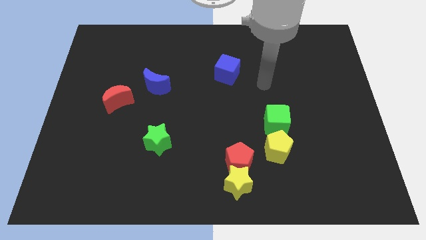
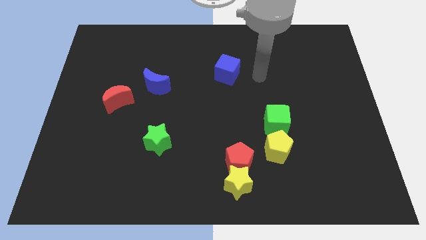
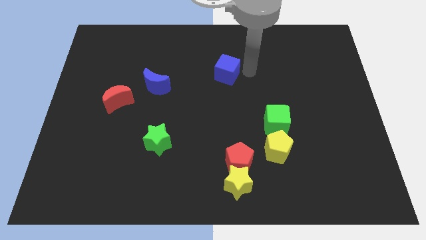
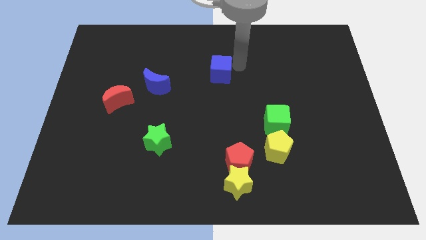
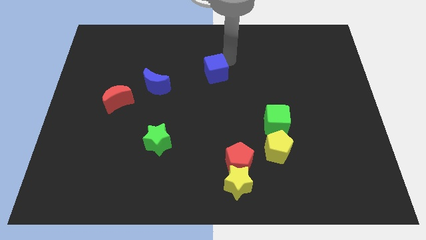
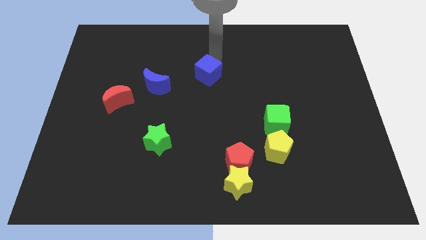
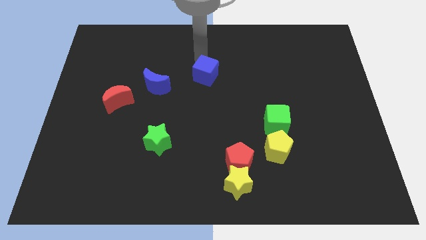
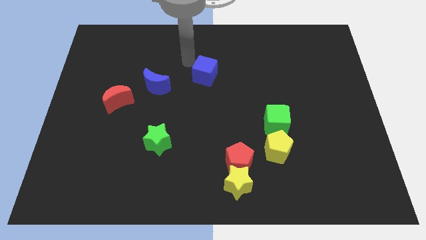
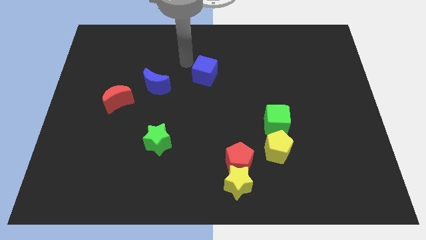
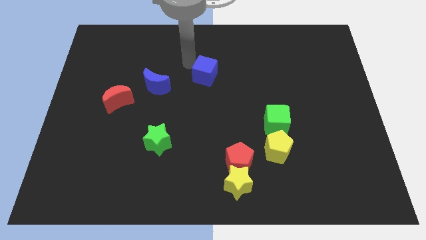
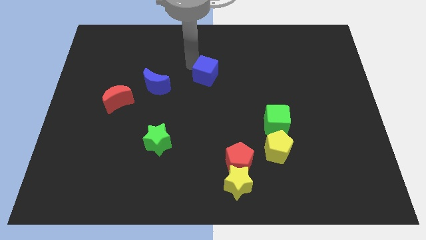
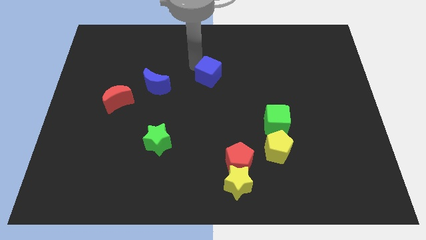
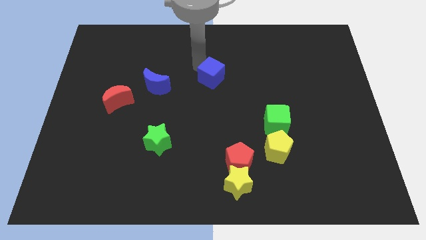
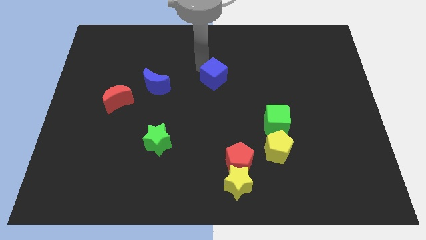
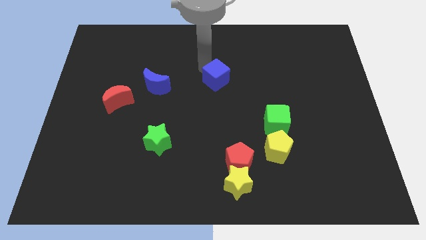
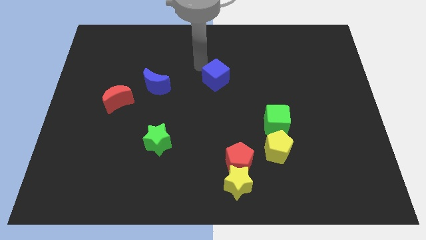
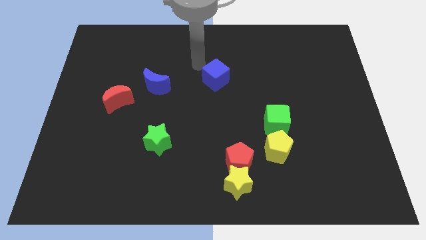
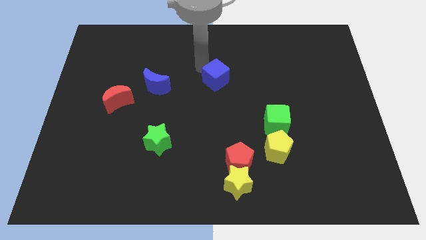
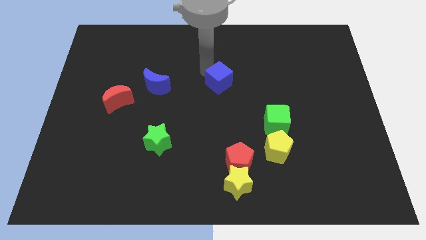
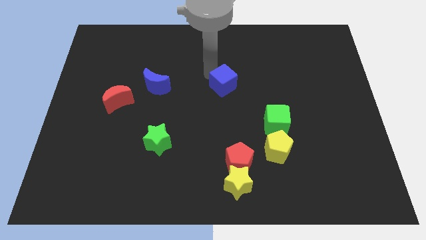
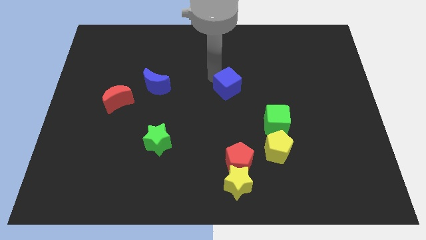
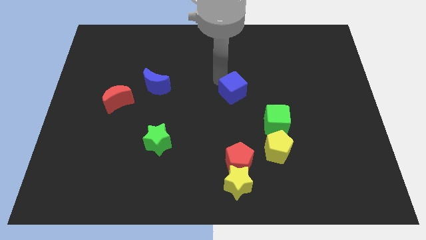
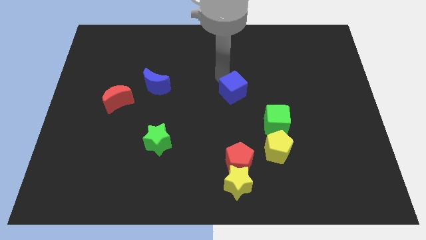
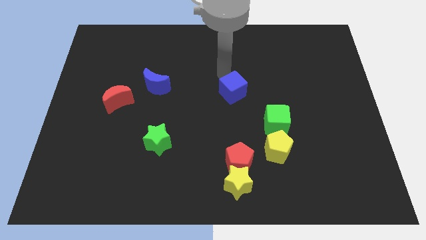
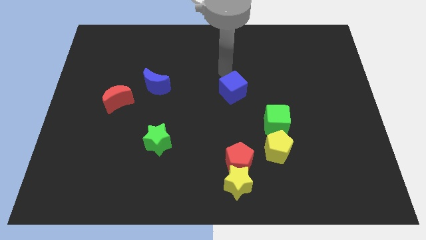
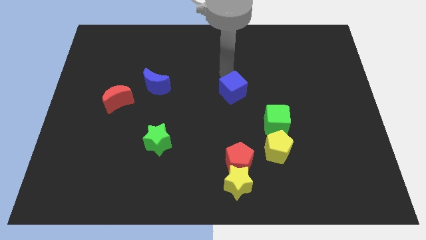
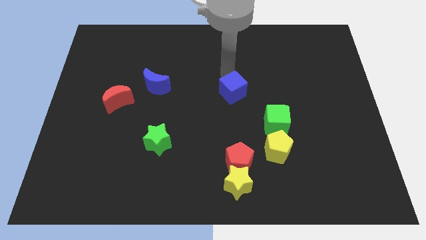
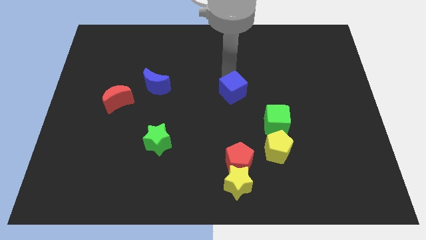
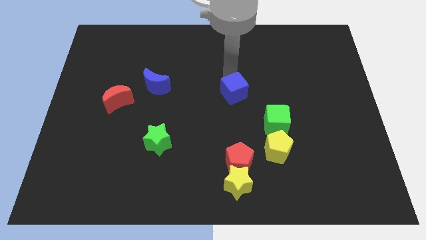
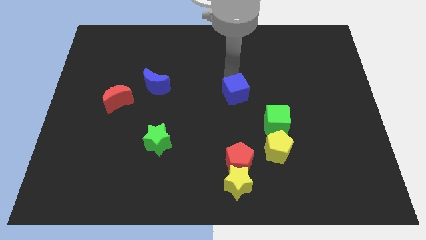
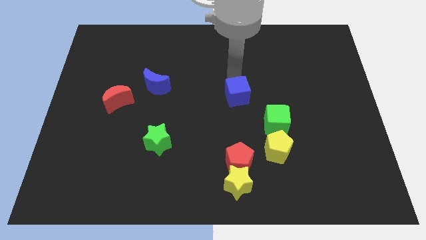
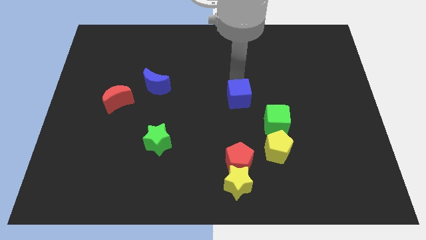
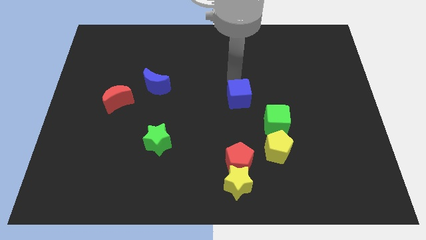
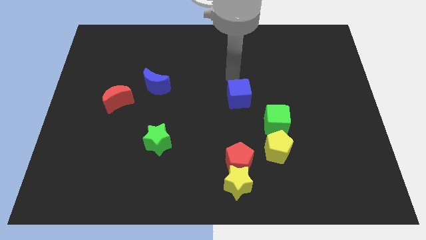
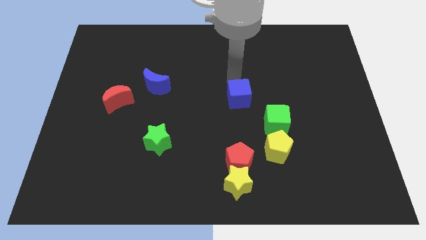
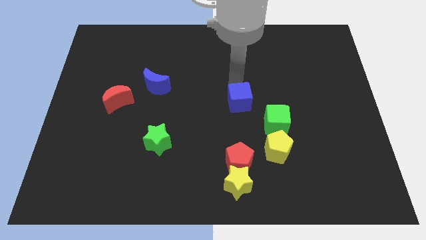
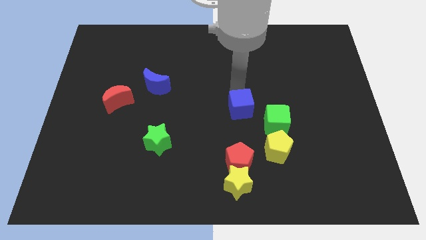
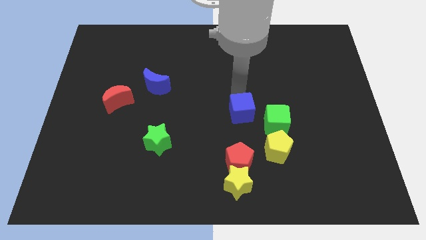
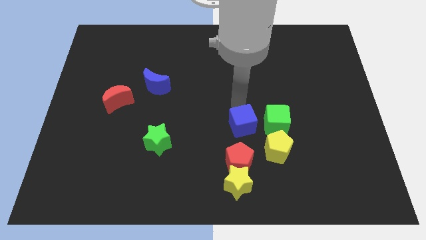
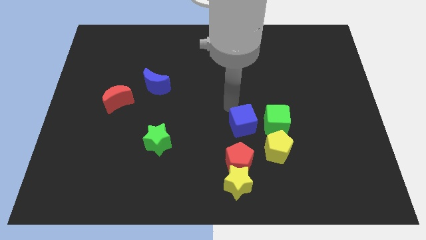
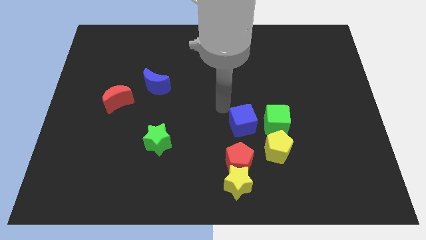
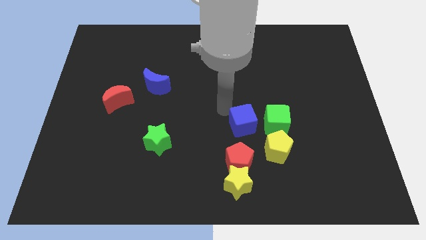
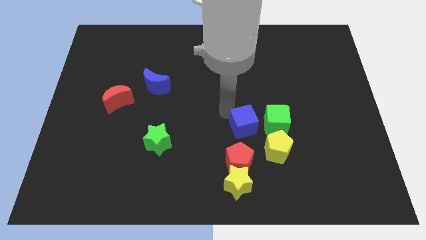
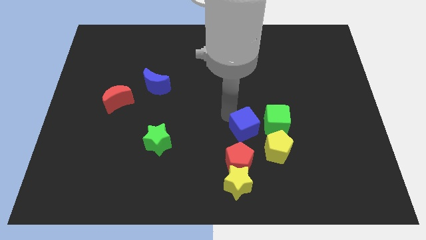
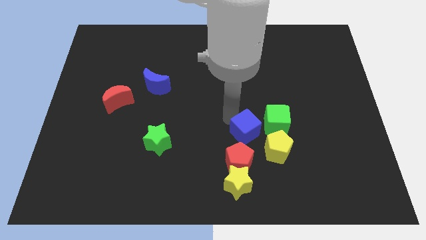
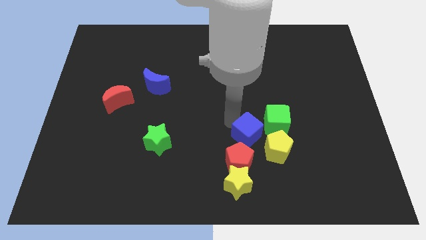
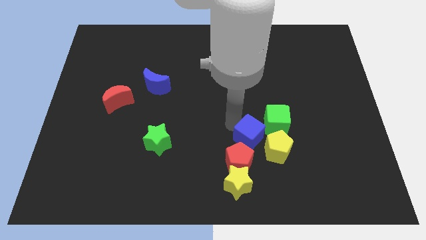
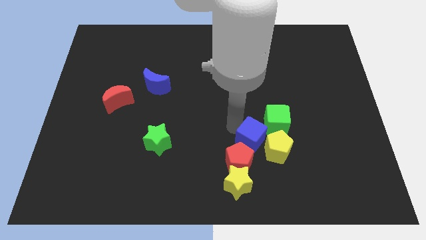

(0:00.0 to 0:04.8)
move the blue cube to the yellow pentagon

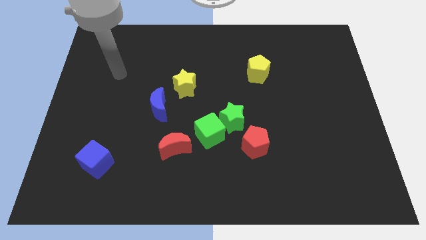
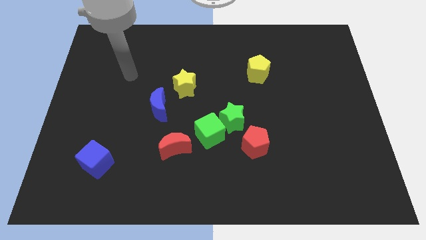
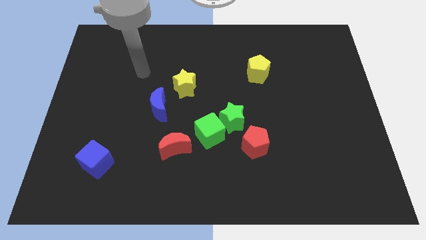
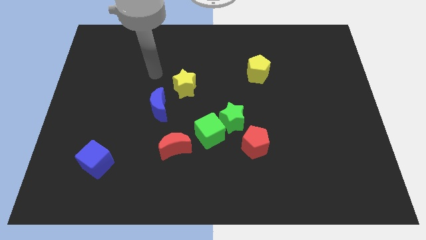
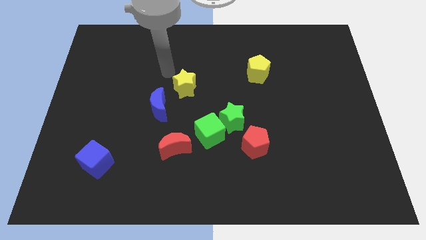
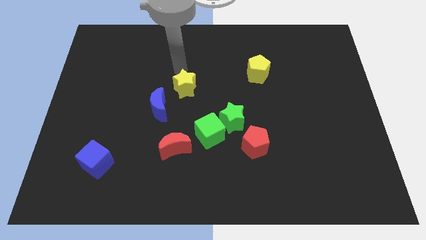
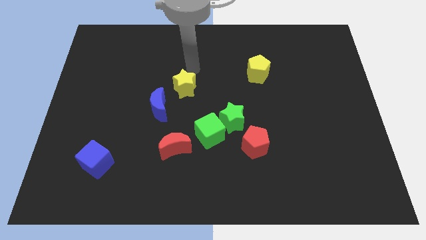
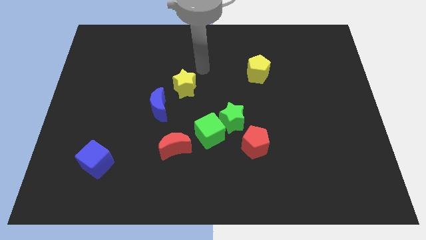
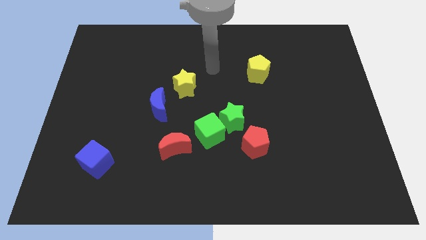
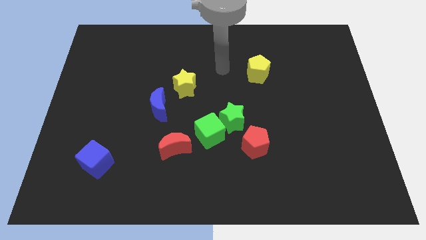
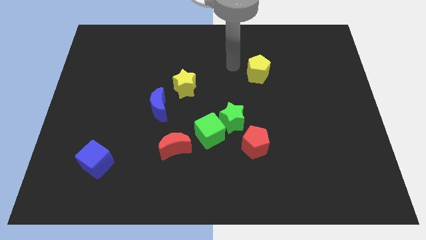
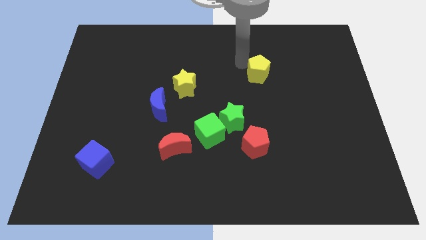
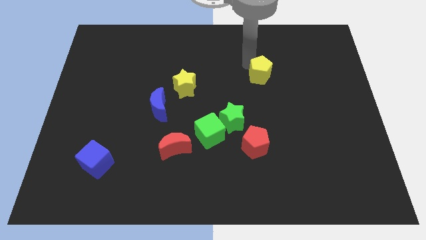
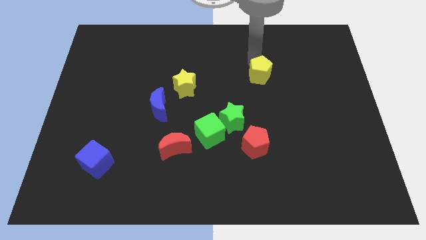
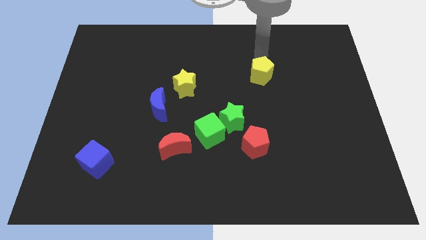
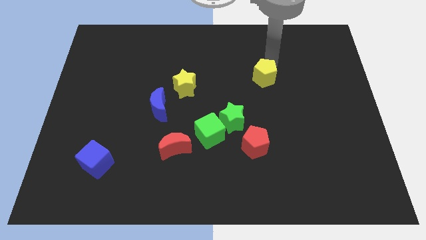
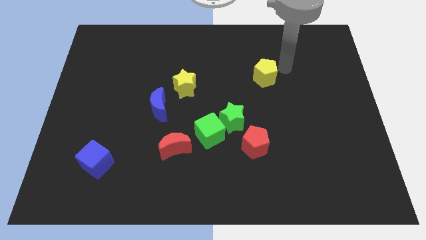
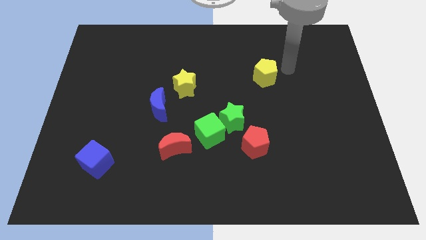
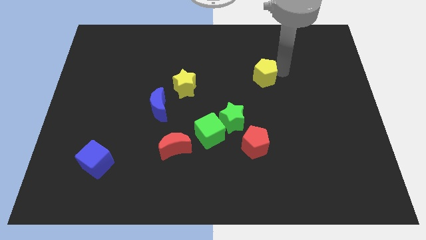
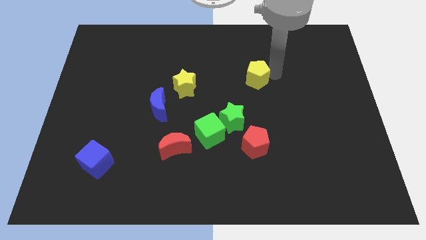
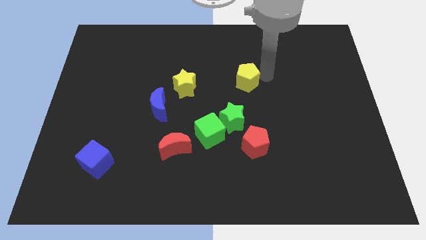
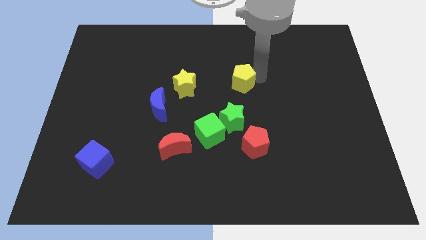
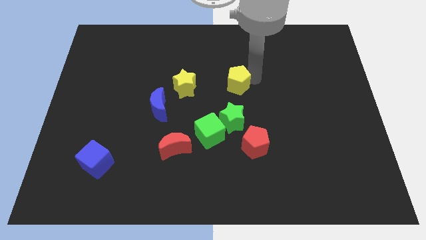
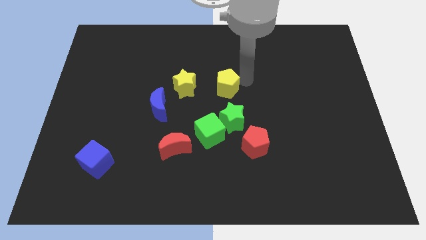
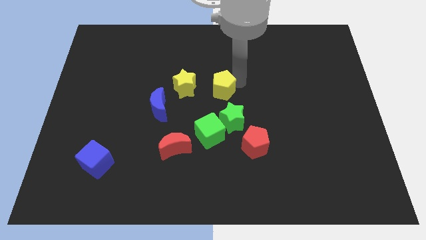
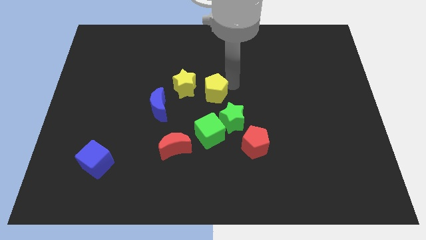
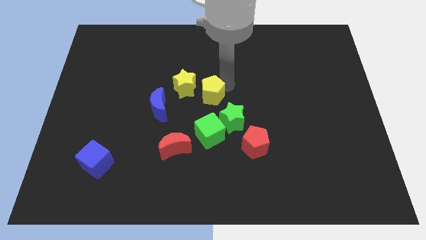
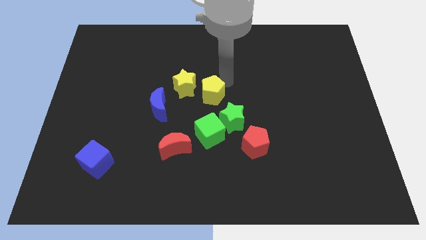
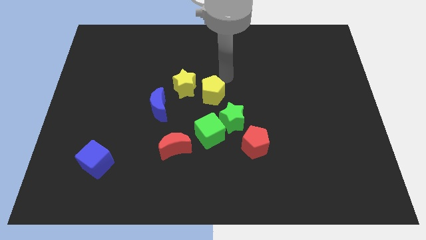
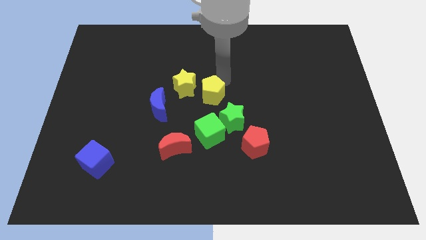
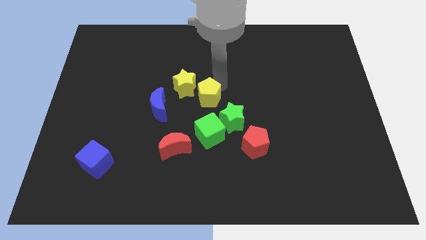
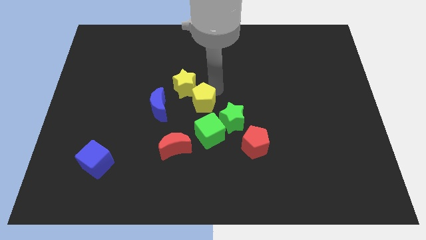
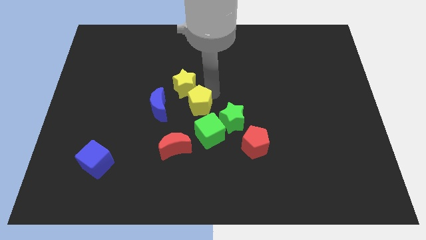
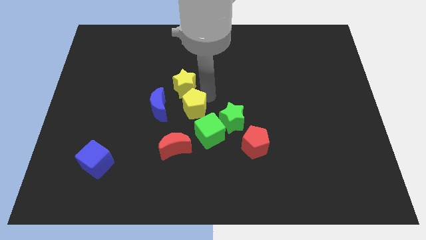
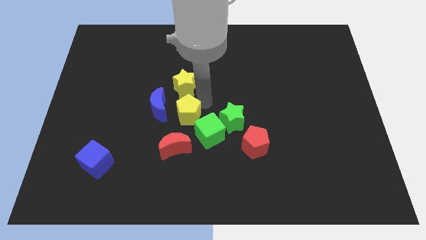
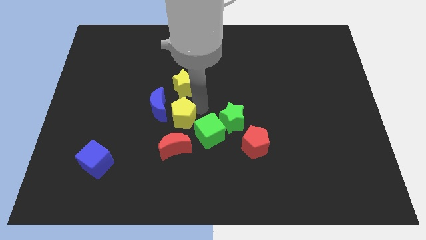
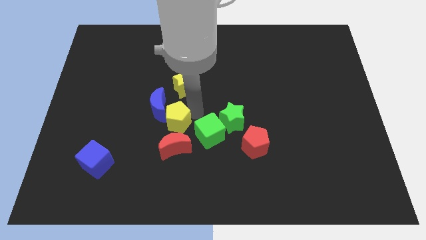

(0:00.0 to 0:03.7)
push the yellow pentagon close to the blue moon
